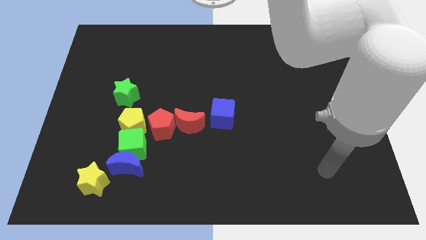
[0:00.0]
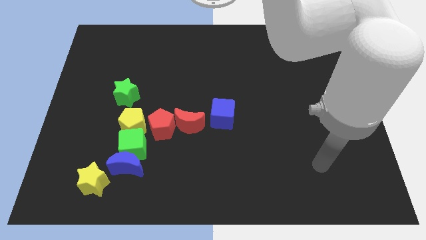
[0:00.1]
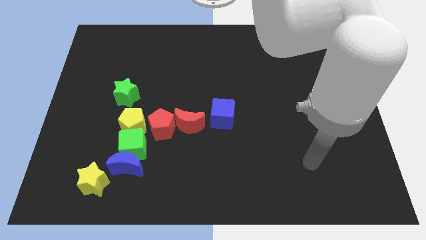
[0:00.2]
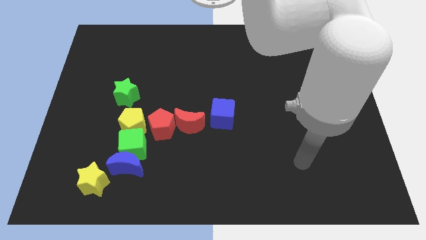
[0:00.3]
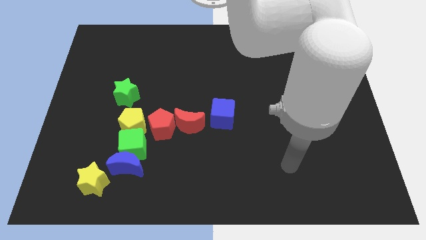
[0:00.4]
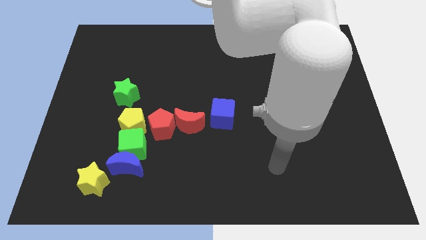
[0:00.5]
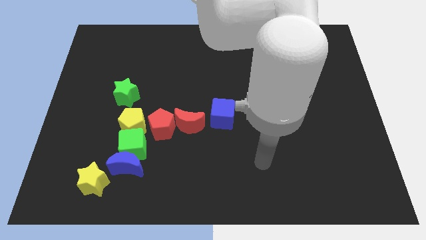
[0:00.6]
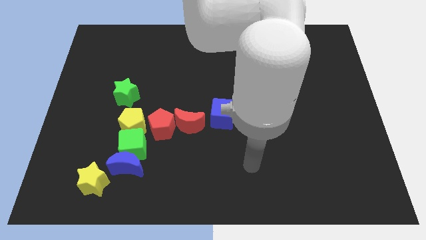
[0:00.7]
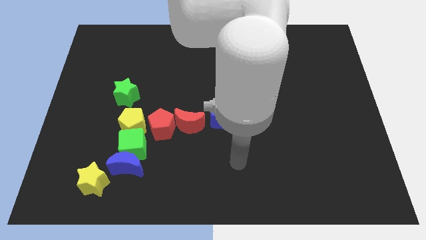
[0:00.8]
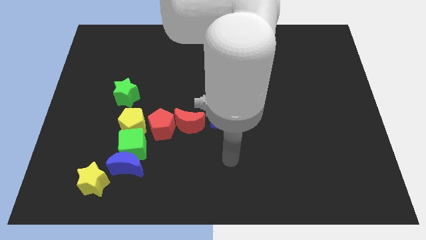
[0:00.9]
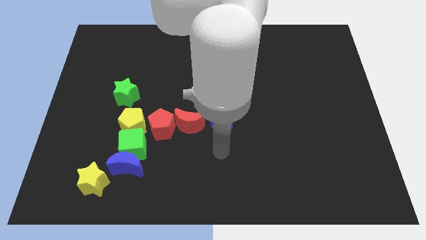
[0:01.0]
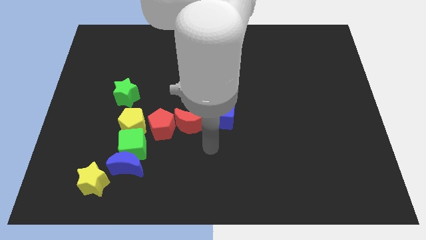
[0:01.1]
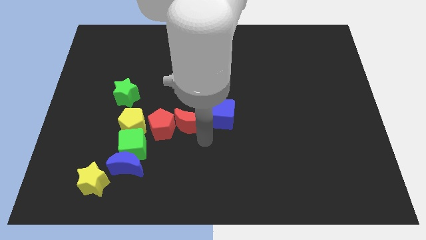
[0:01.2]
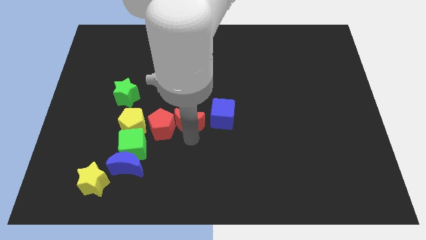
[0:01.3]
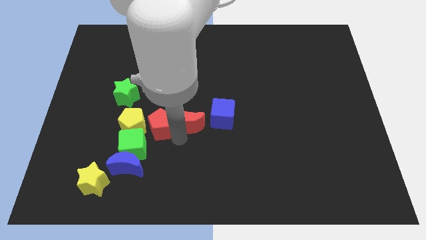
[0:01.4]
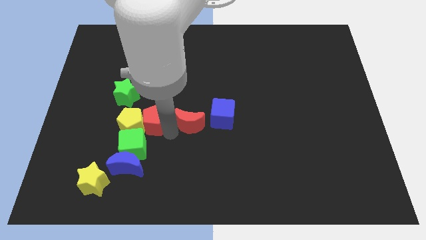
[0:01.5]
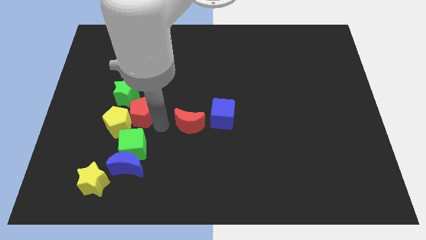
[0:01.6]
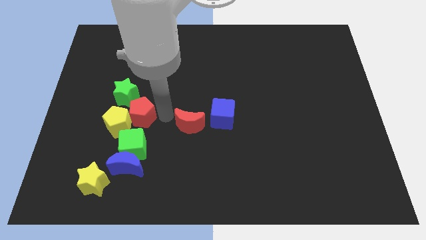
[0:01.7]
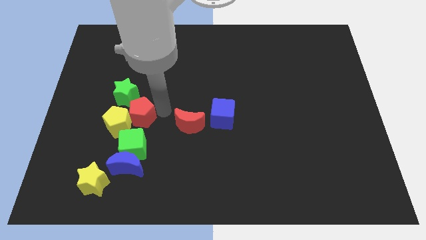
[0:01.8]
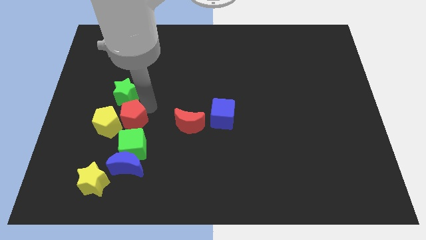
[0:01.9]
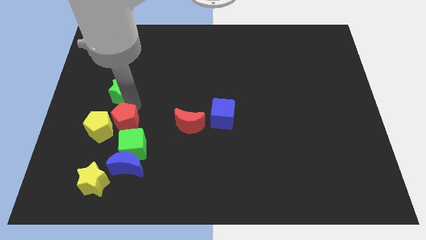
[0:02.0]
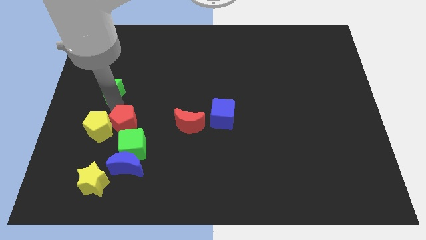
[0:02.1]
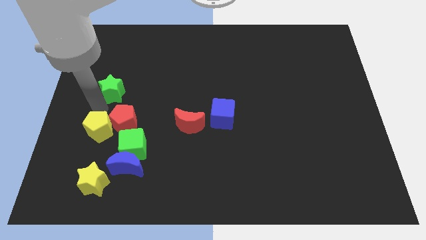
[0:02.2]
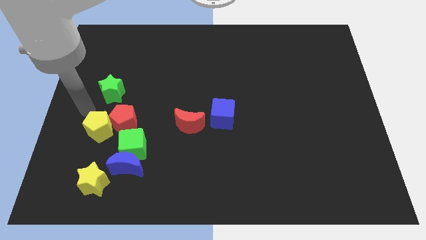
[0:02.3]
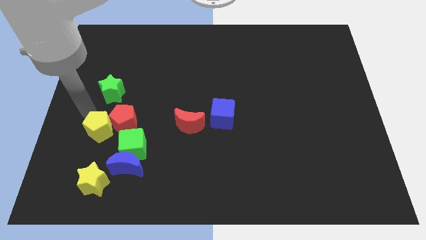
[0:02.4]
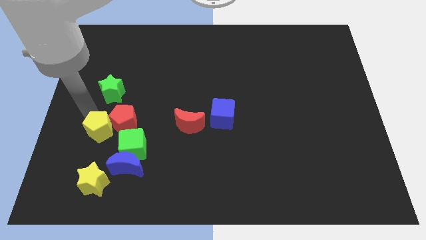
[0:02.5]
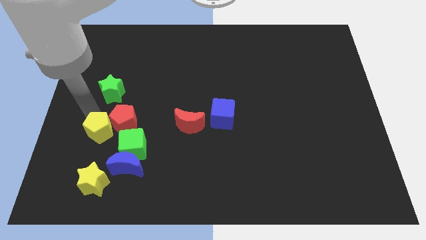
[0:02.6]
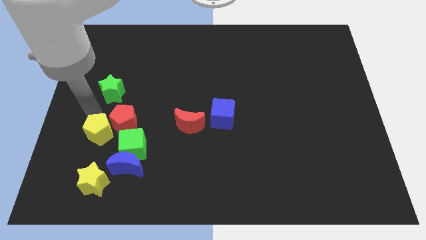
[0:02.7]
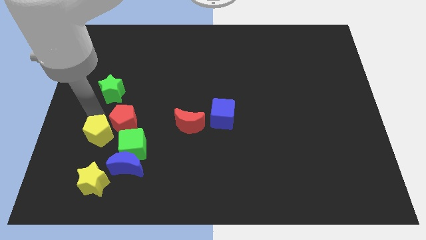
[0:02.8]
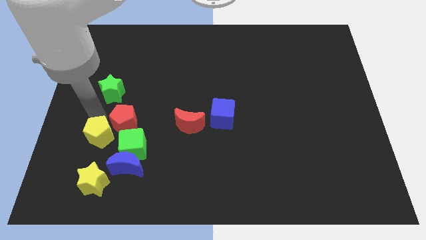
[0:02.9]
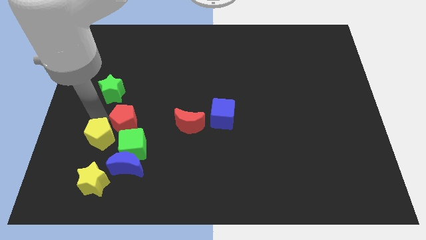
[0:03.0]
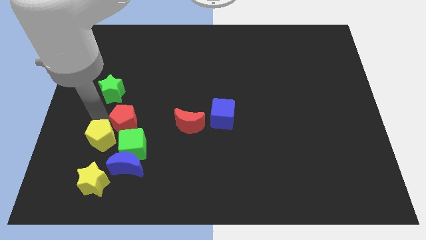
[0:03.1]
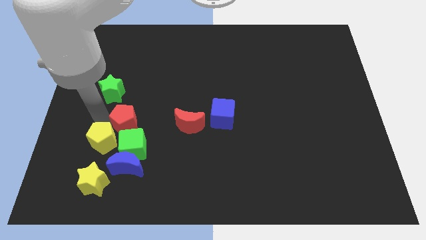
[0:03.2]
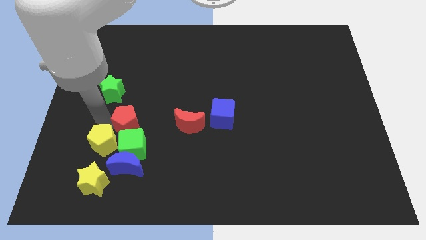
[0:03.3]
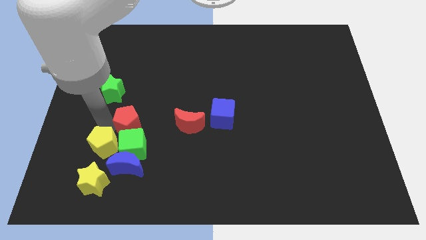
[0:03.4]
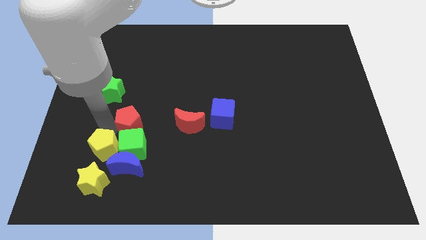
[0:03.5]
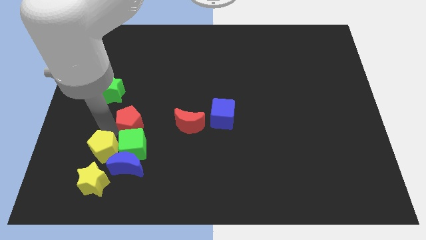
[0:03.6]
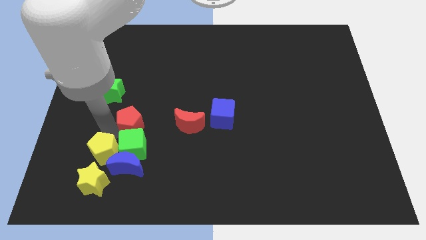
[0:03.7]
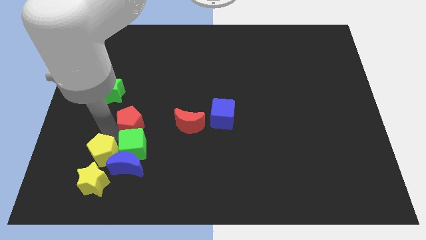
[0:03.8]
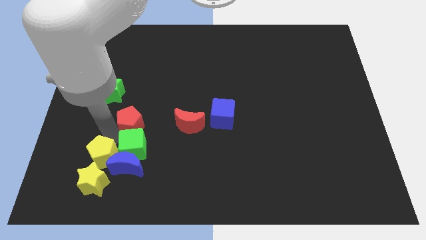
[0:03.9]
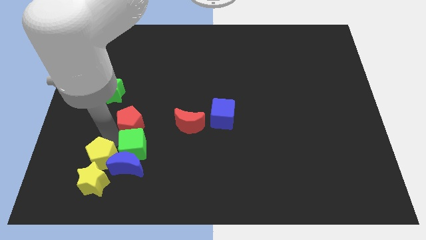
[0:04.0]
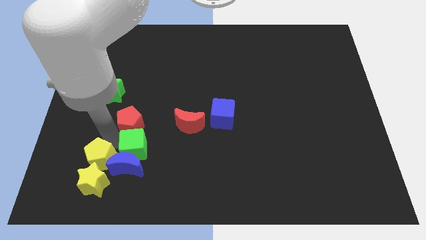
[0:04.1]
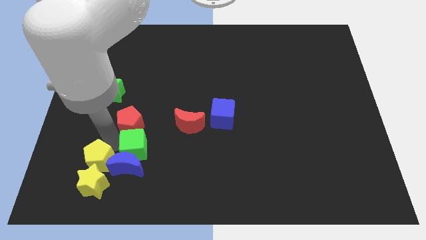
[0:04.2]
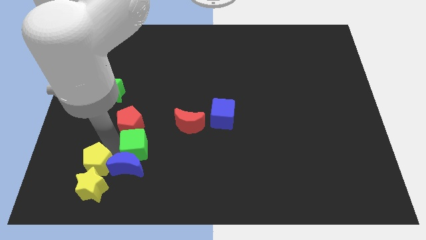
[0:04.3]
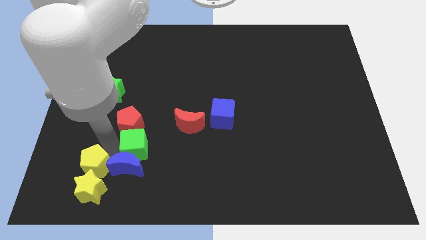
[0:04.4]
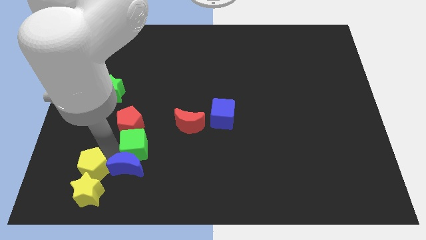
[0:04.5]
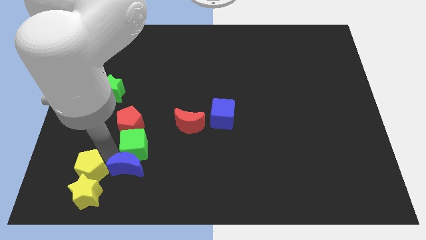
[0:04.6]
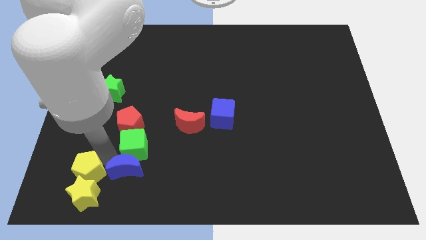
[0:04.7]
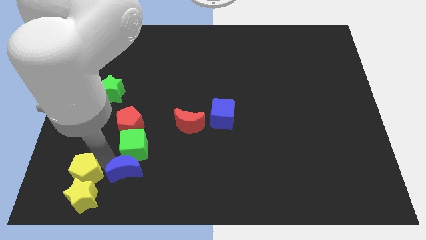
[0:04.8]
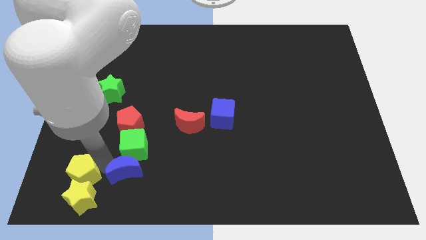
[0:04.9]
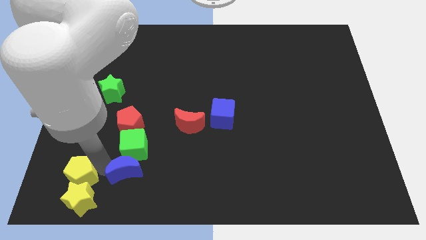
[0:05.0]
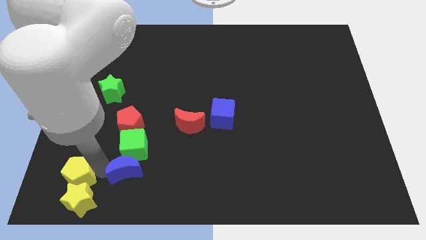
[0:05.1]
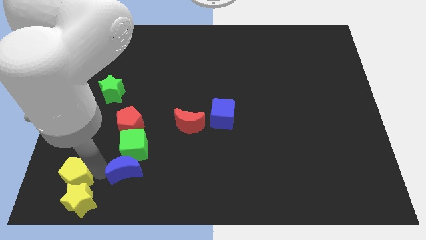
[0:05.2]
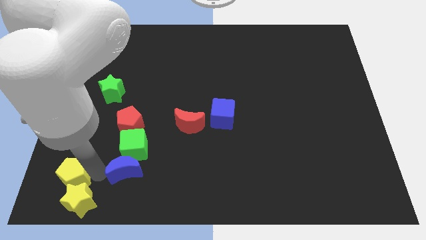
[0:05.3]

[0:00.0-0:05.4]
move the yellow pentagon to the bottom left of the board
